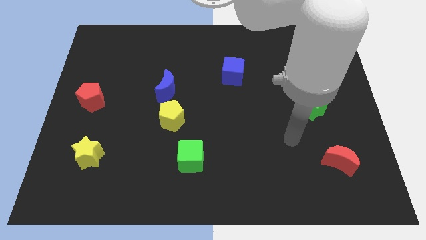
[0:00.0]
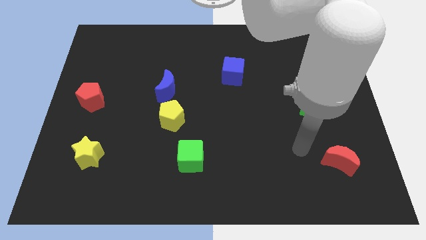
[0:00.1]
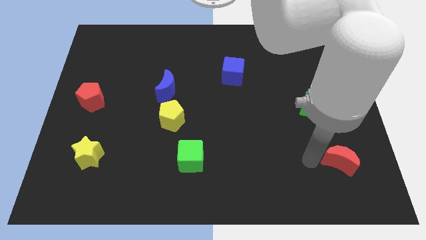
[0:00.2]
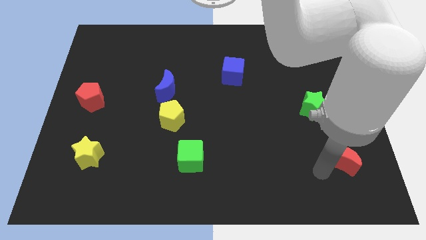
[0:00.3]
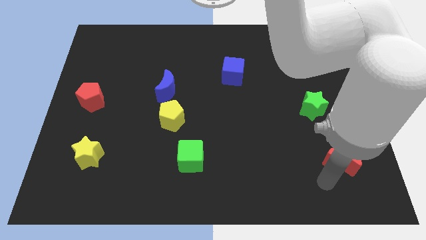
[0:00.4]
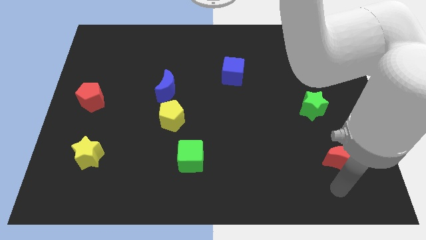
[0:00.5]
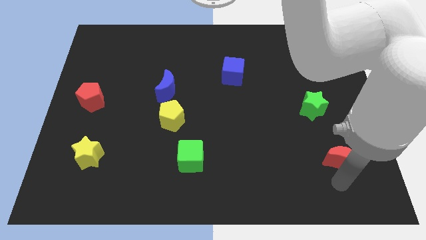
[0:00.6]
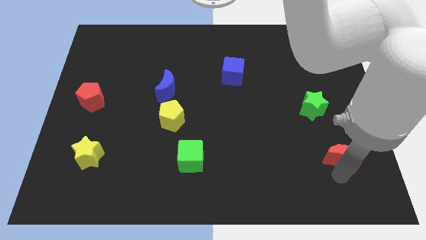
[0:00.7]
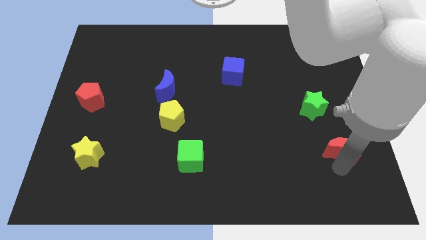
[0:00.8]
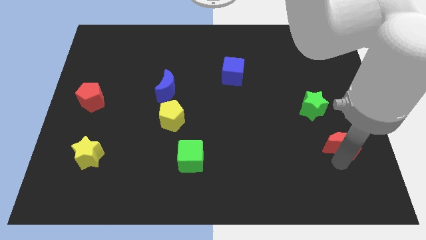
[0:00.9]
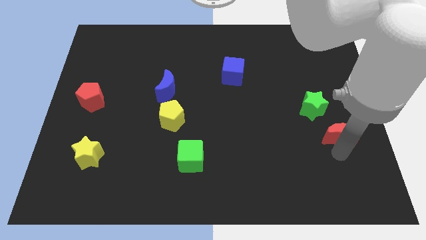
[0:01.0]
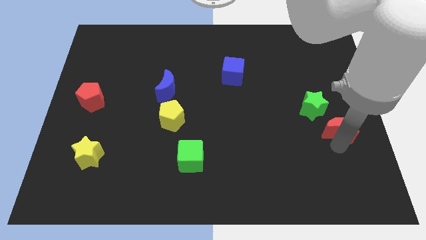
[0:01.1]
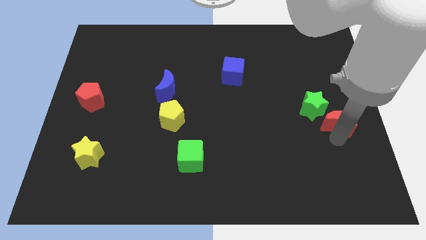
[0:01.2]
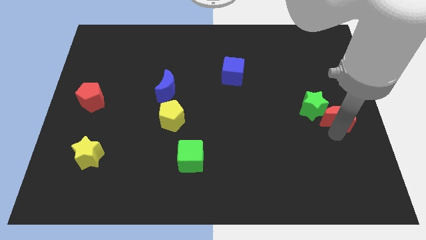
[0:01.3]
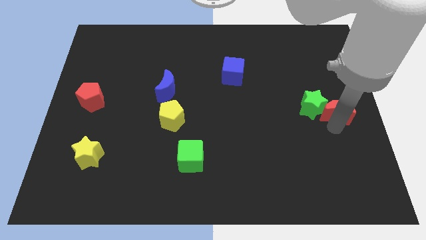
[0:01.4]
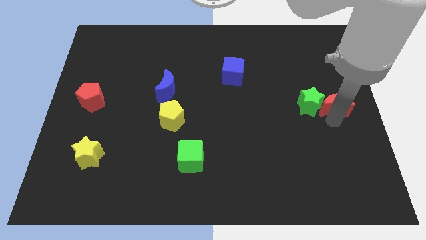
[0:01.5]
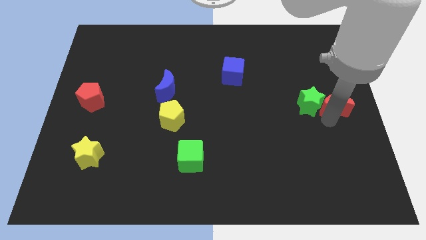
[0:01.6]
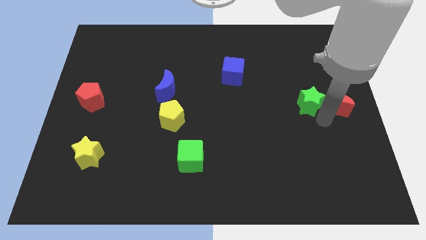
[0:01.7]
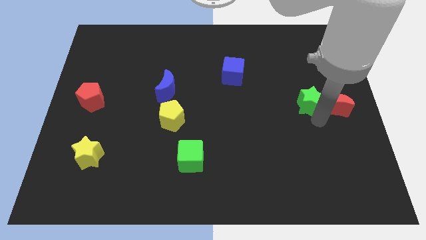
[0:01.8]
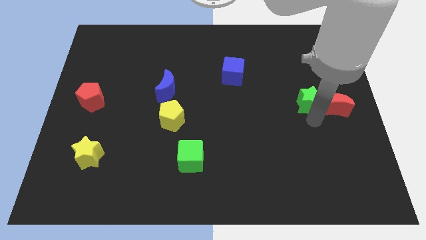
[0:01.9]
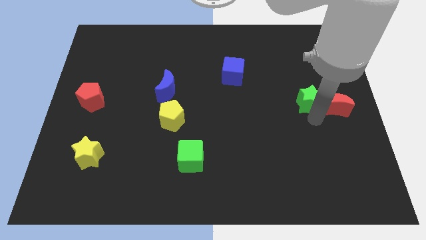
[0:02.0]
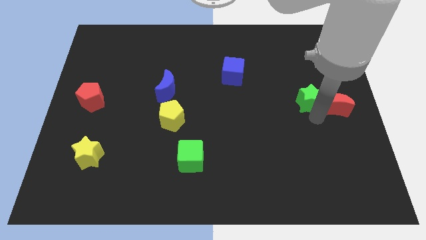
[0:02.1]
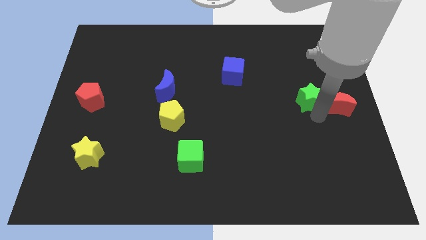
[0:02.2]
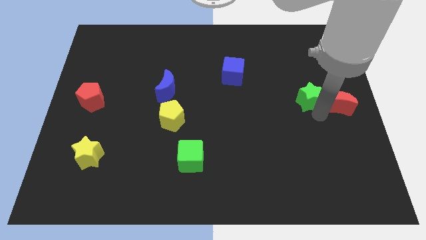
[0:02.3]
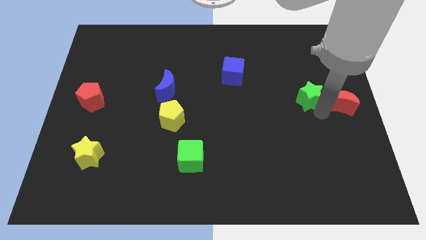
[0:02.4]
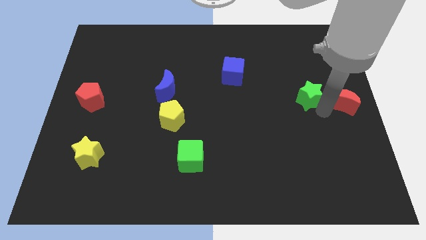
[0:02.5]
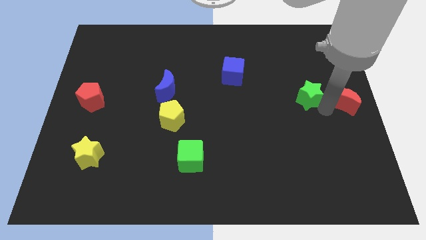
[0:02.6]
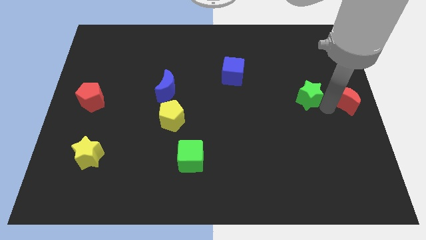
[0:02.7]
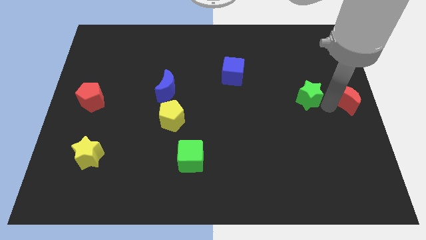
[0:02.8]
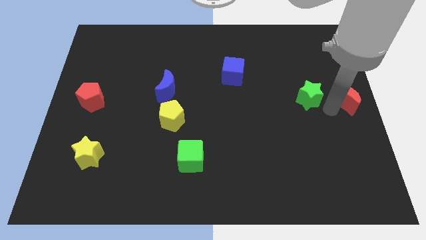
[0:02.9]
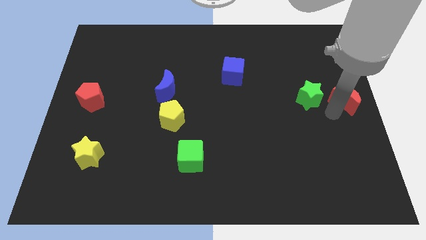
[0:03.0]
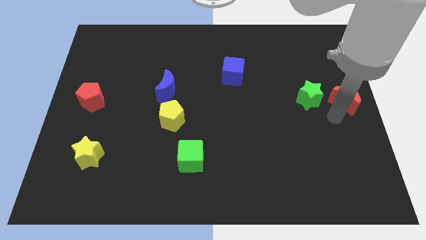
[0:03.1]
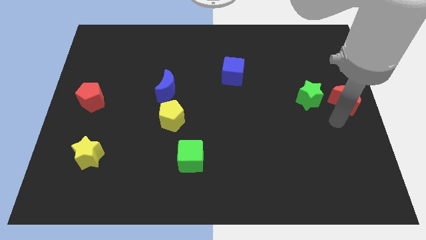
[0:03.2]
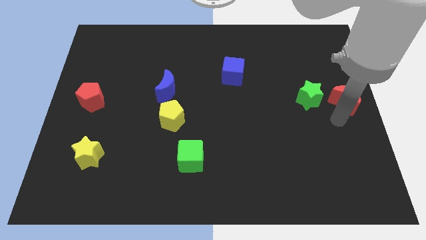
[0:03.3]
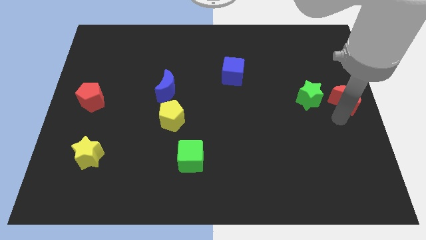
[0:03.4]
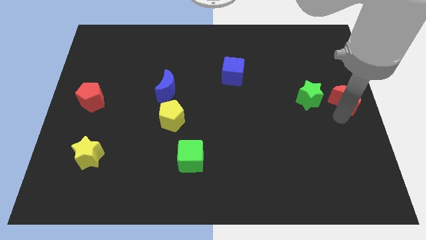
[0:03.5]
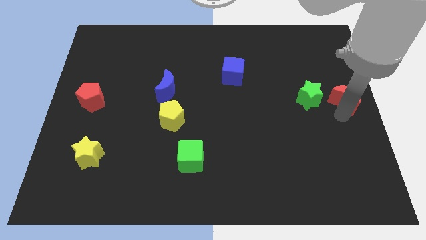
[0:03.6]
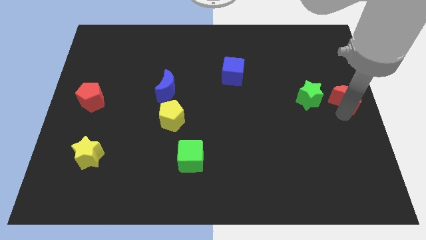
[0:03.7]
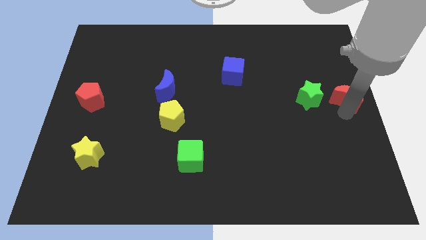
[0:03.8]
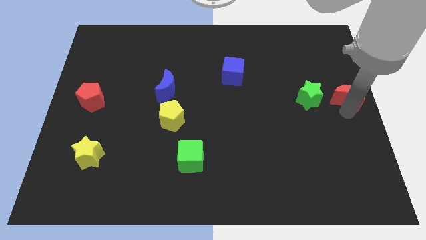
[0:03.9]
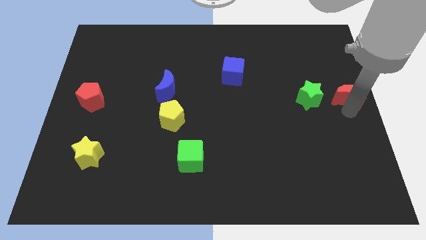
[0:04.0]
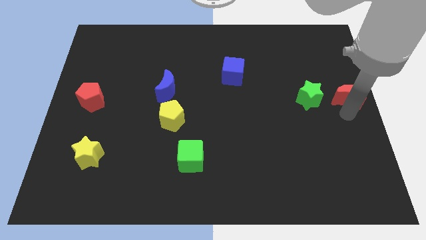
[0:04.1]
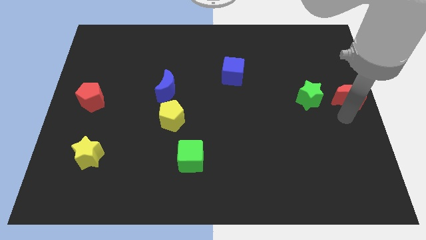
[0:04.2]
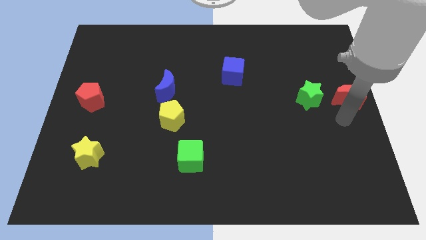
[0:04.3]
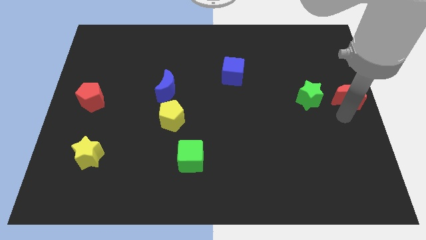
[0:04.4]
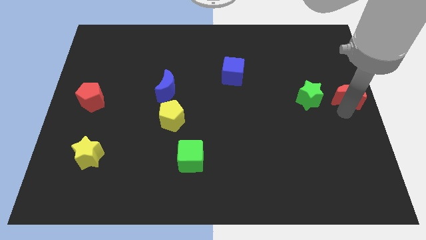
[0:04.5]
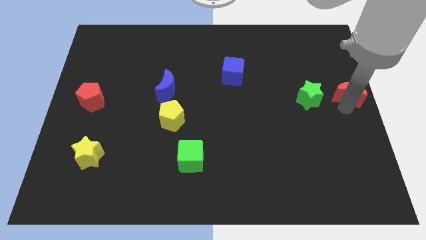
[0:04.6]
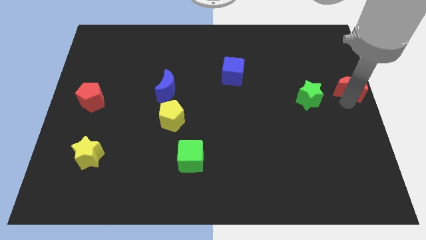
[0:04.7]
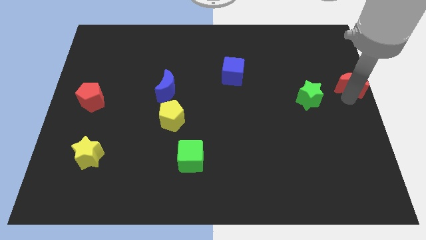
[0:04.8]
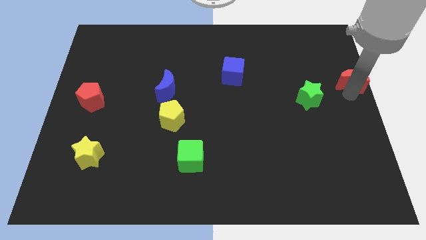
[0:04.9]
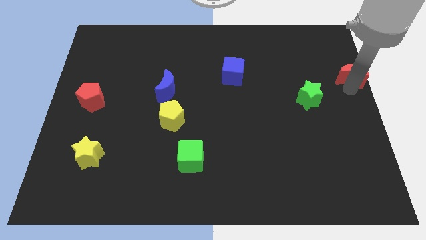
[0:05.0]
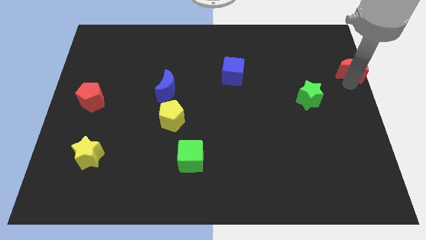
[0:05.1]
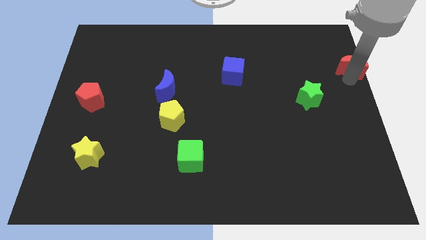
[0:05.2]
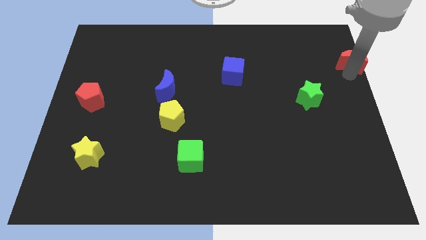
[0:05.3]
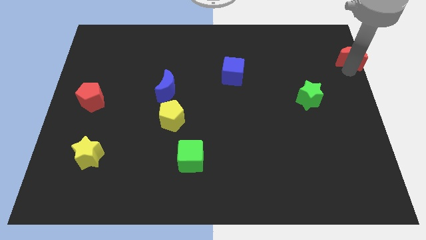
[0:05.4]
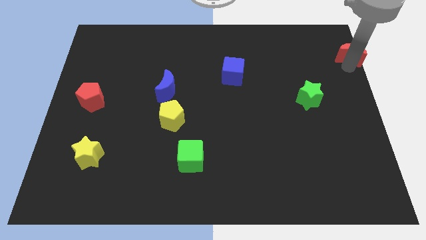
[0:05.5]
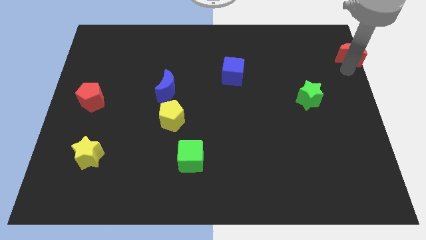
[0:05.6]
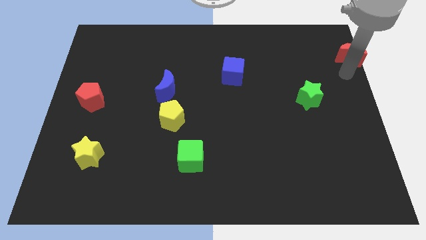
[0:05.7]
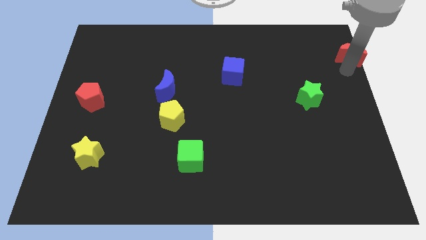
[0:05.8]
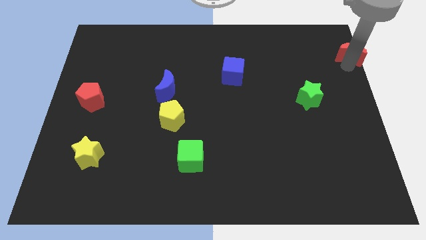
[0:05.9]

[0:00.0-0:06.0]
push the red moon to the top right corner
